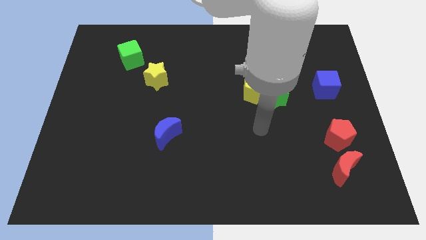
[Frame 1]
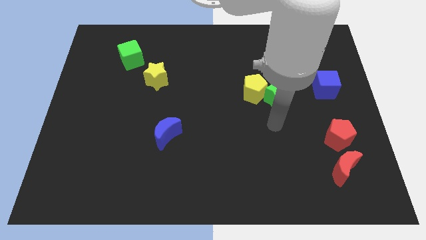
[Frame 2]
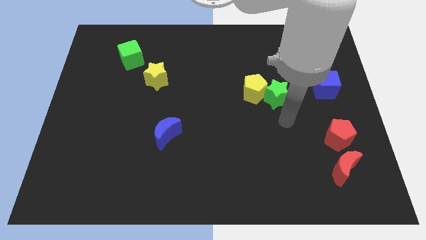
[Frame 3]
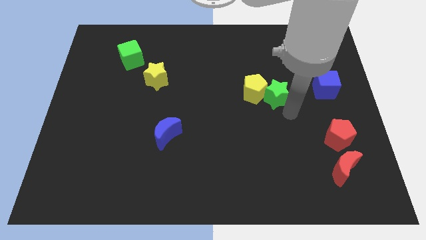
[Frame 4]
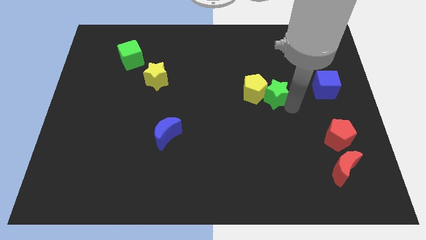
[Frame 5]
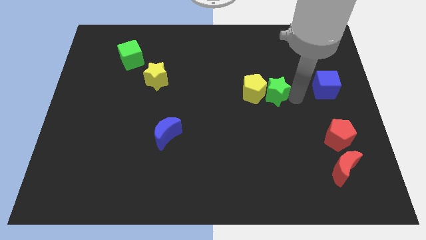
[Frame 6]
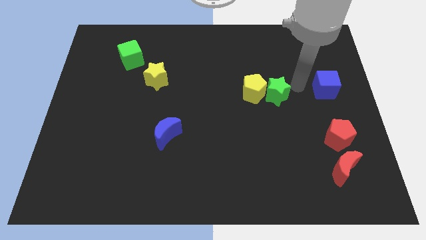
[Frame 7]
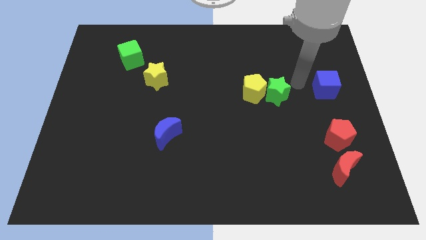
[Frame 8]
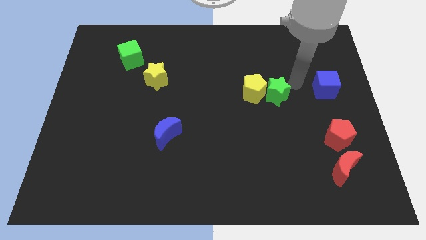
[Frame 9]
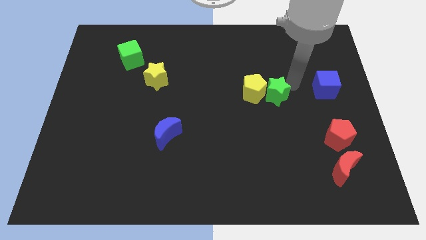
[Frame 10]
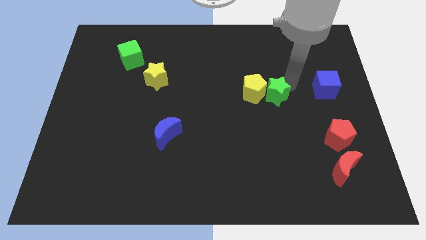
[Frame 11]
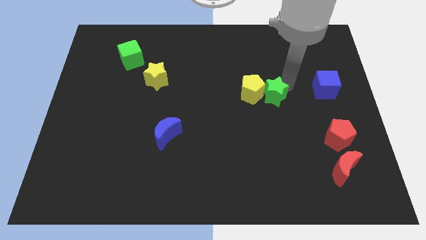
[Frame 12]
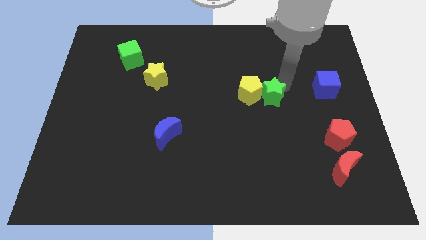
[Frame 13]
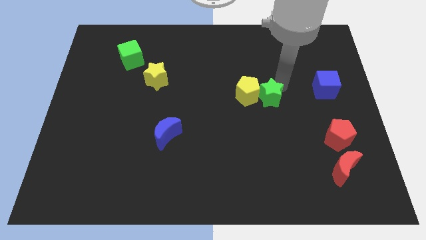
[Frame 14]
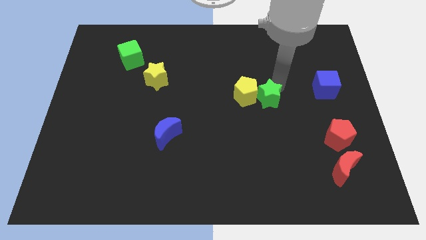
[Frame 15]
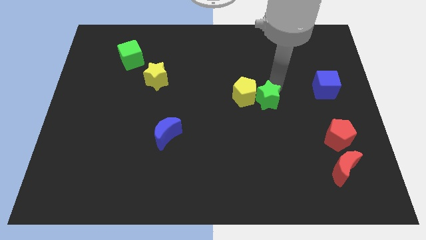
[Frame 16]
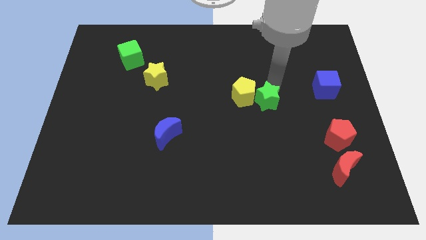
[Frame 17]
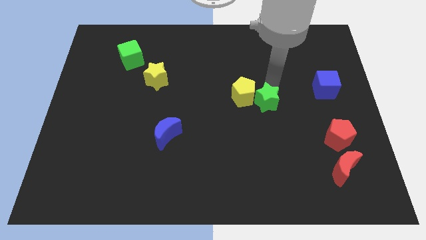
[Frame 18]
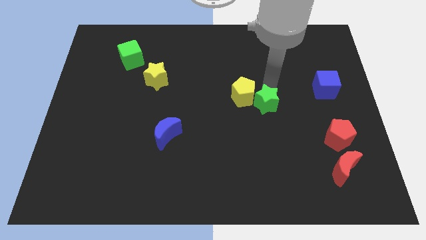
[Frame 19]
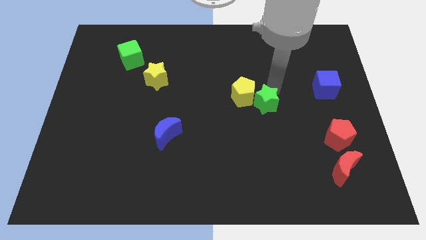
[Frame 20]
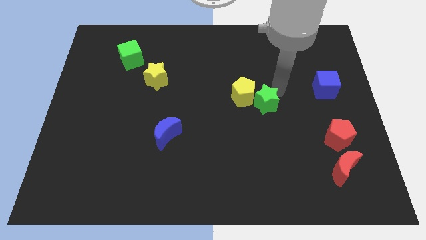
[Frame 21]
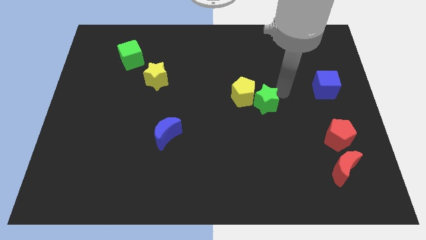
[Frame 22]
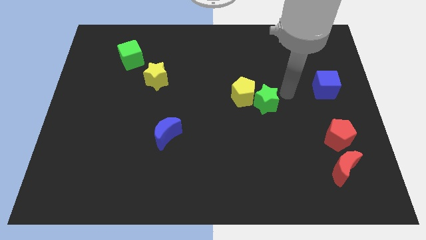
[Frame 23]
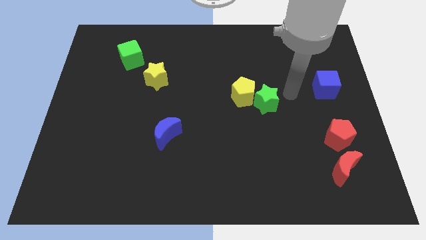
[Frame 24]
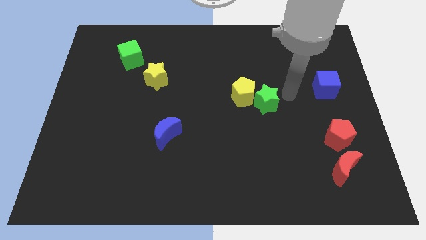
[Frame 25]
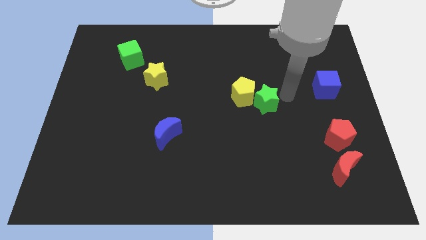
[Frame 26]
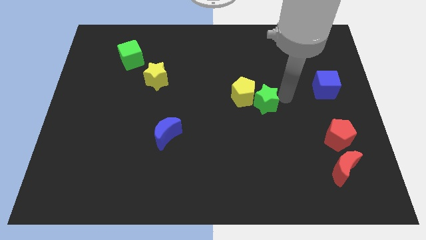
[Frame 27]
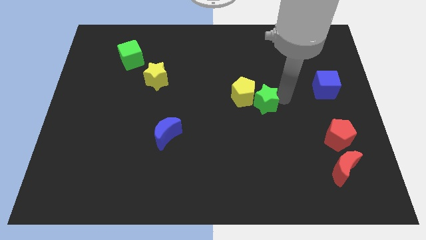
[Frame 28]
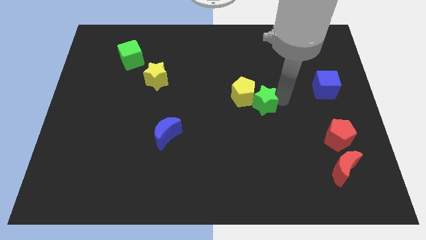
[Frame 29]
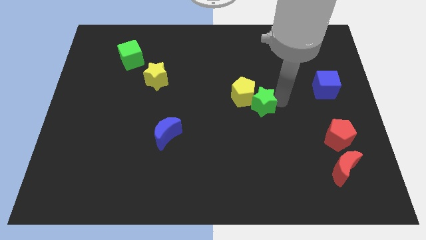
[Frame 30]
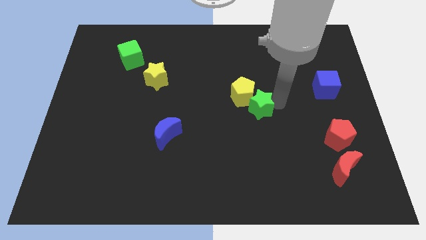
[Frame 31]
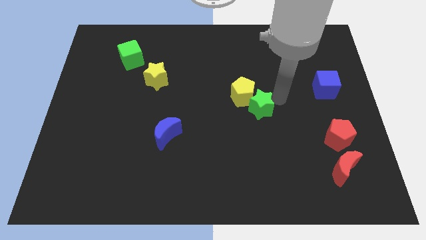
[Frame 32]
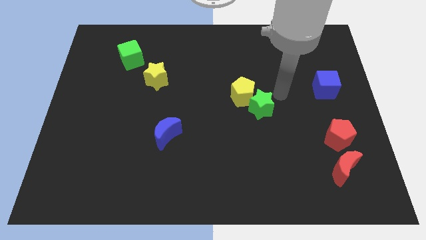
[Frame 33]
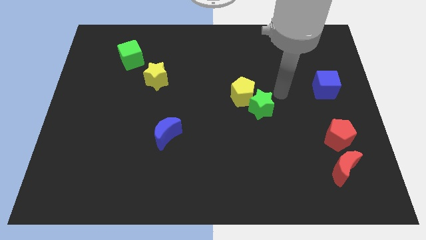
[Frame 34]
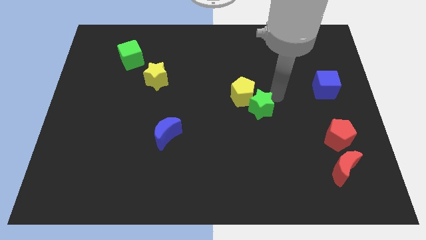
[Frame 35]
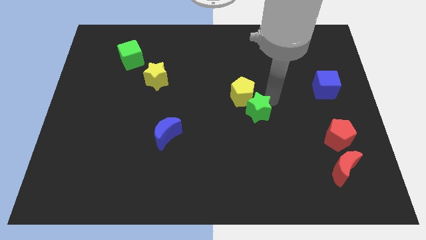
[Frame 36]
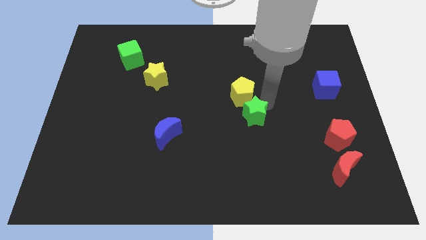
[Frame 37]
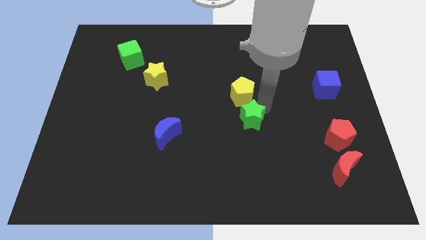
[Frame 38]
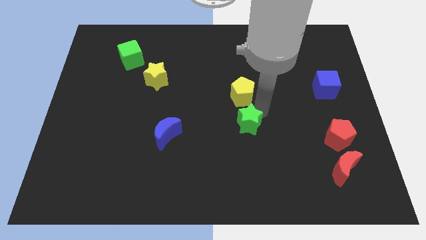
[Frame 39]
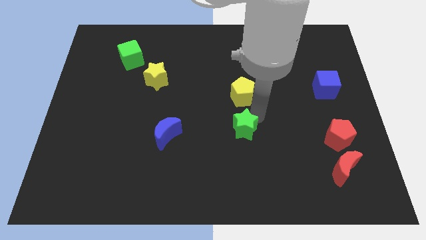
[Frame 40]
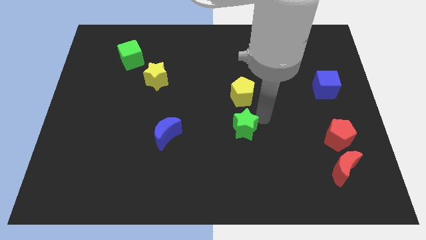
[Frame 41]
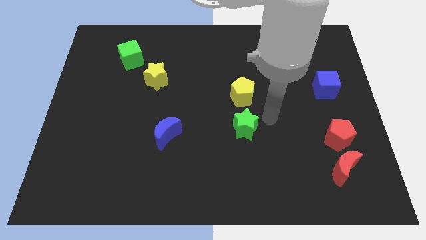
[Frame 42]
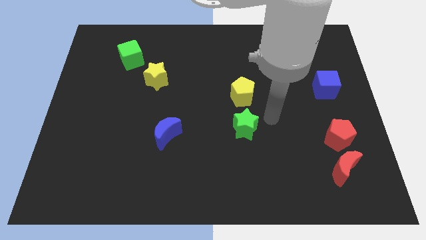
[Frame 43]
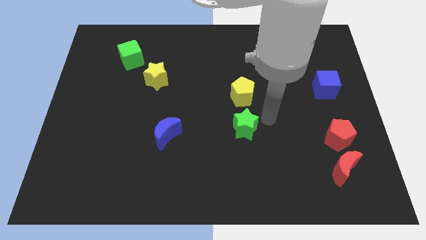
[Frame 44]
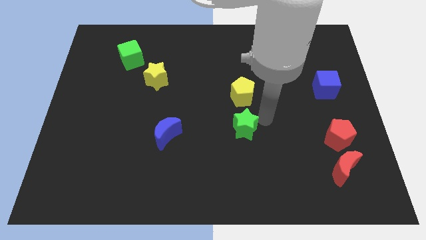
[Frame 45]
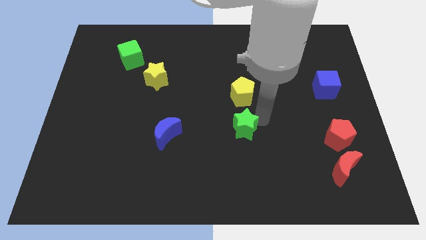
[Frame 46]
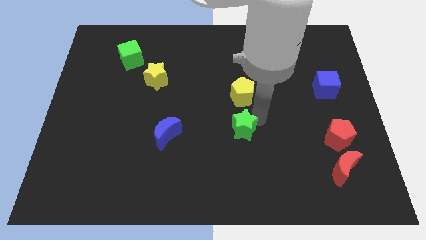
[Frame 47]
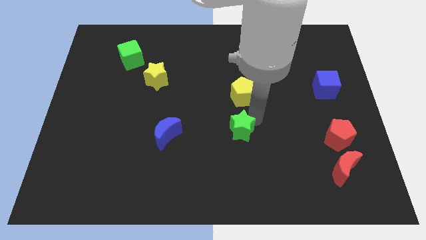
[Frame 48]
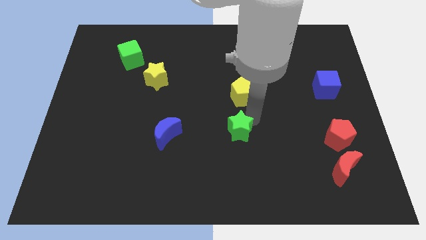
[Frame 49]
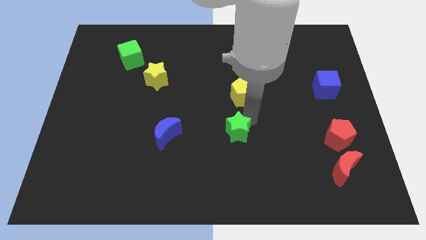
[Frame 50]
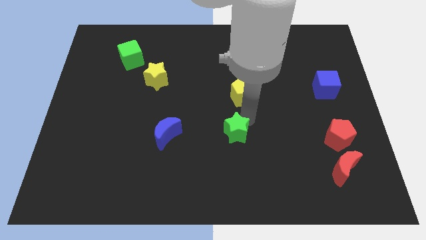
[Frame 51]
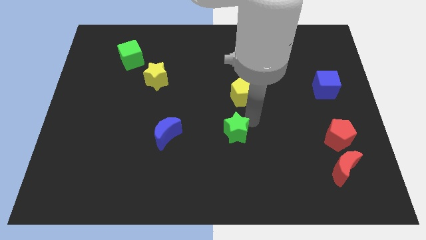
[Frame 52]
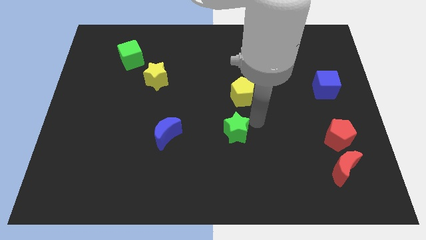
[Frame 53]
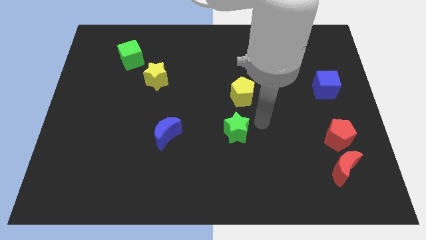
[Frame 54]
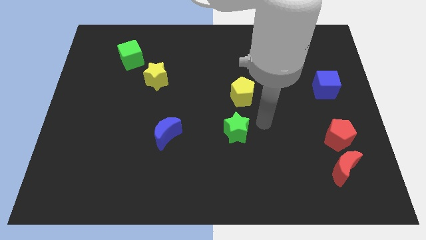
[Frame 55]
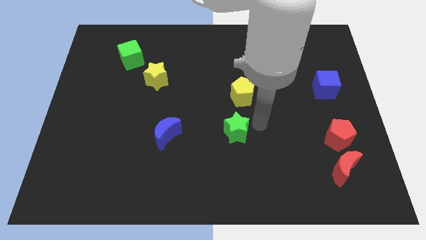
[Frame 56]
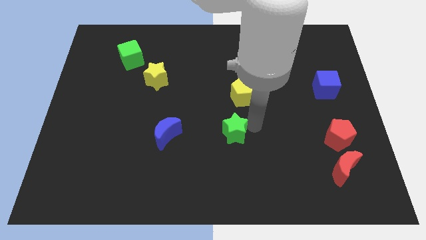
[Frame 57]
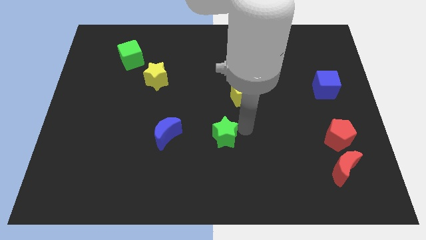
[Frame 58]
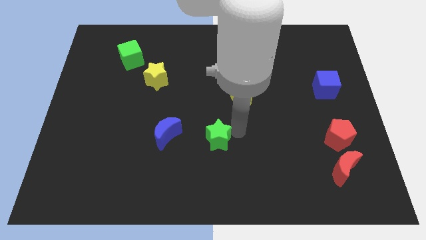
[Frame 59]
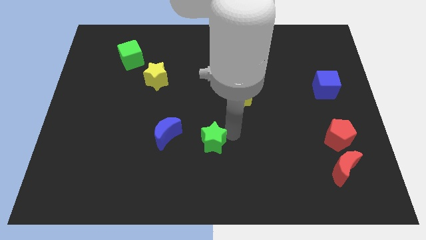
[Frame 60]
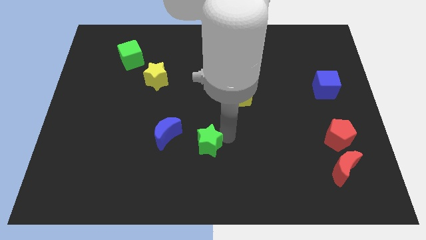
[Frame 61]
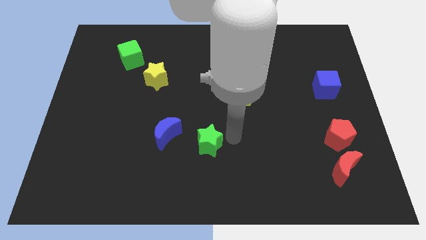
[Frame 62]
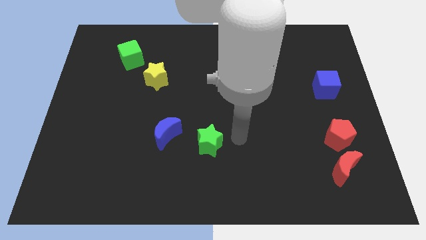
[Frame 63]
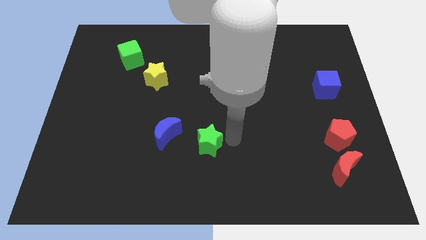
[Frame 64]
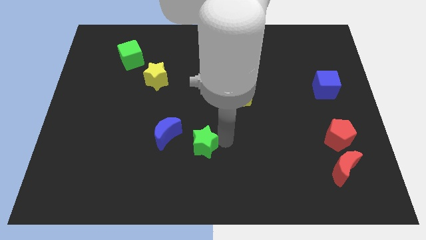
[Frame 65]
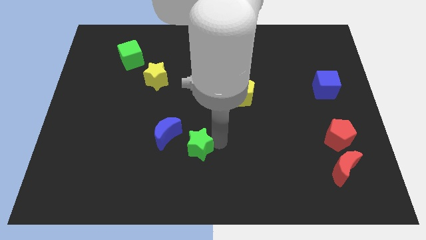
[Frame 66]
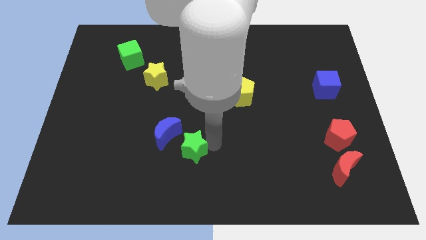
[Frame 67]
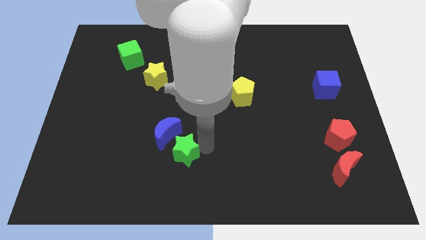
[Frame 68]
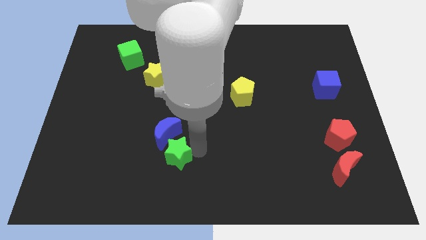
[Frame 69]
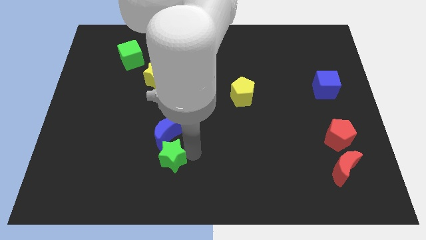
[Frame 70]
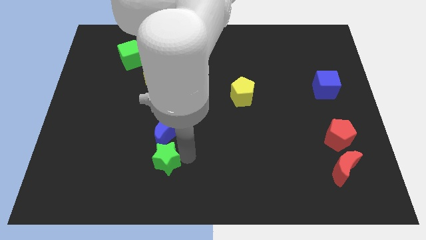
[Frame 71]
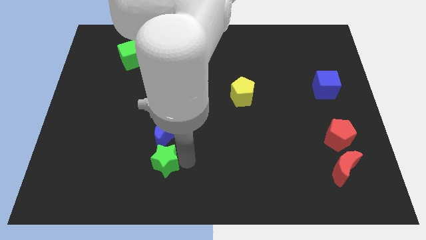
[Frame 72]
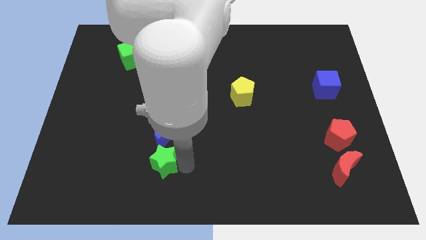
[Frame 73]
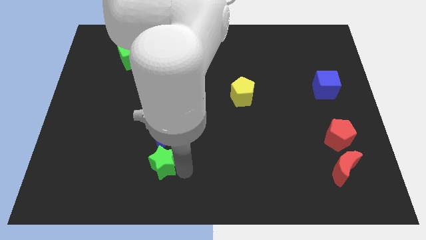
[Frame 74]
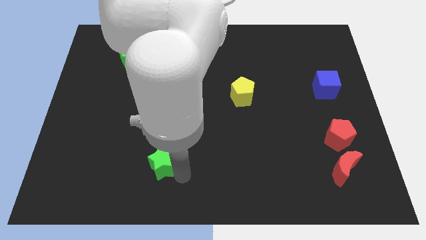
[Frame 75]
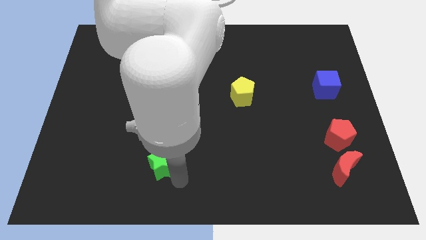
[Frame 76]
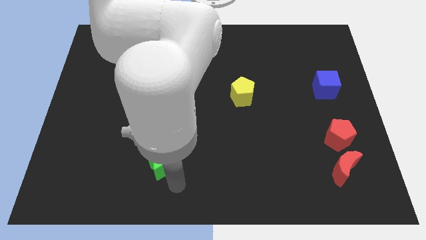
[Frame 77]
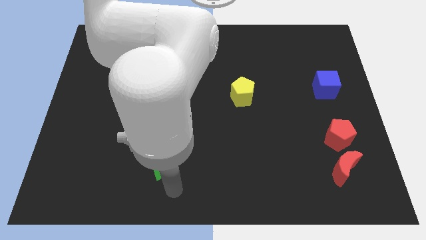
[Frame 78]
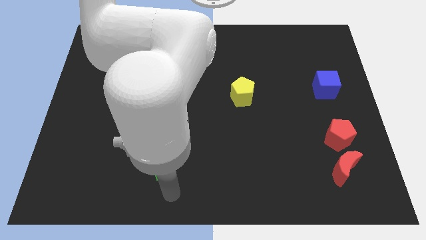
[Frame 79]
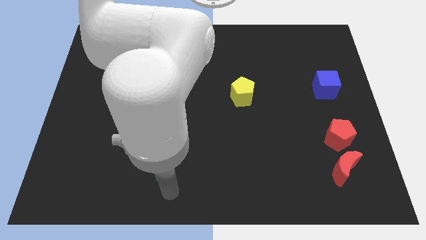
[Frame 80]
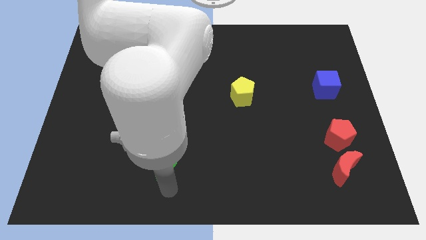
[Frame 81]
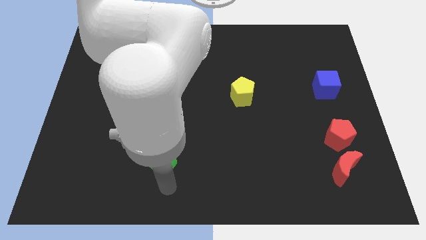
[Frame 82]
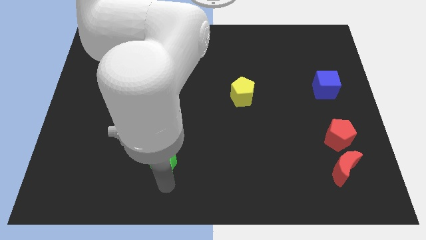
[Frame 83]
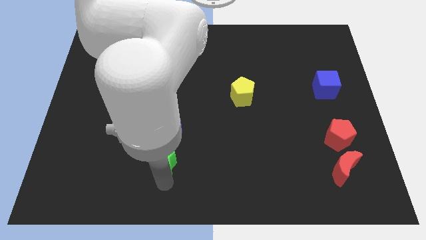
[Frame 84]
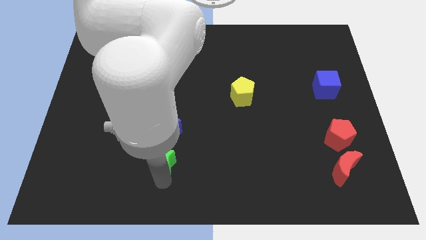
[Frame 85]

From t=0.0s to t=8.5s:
move the green star to the bottom left of the blue moon
